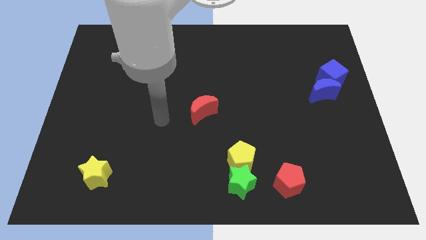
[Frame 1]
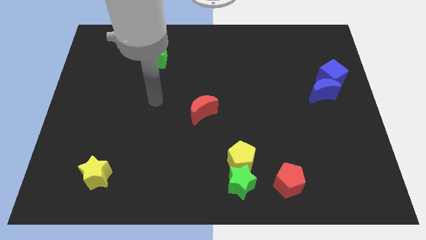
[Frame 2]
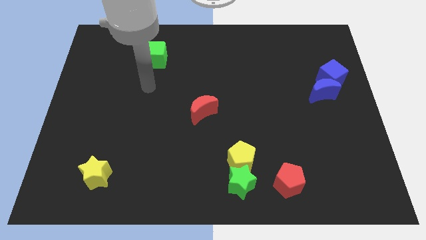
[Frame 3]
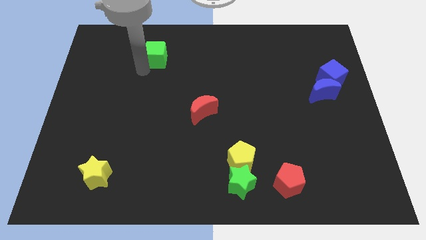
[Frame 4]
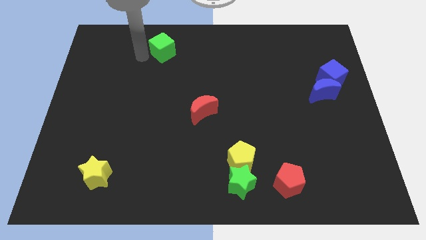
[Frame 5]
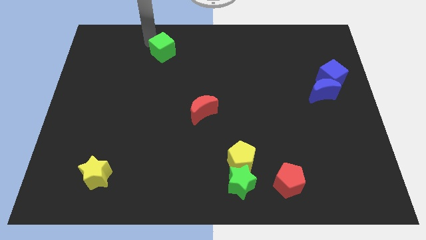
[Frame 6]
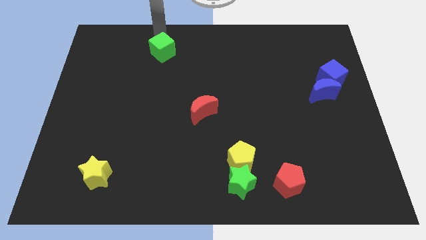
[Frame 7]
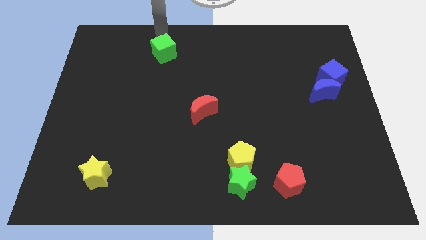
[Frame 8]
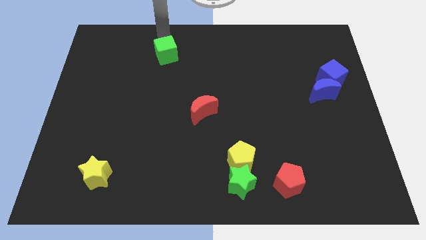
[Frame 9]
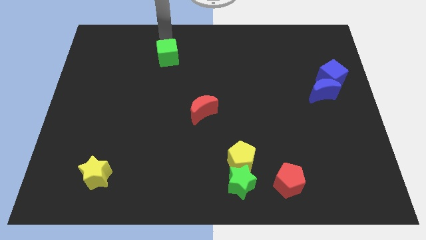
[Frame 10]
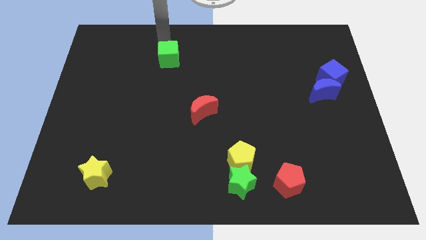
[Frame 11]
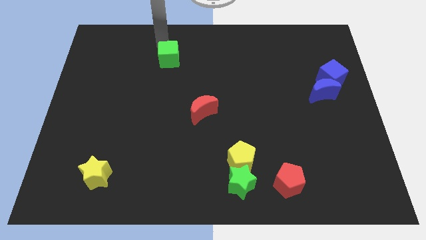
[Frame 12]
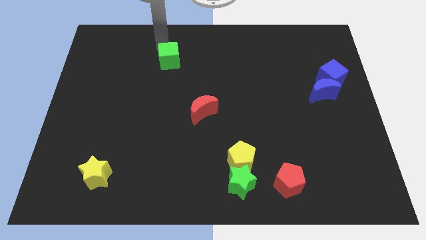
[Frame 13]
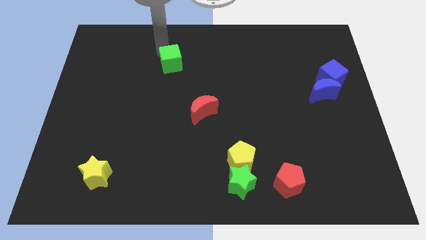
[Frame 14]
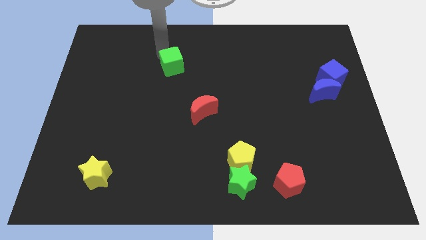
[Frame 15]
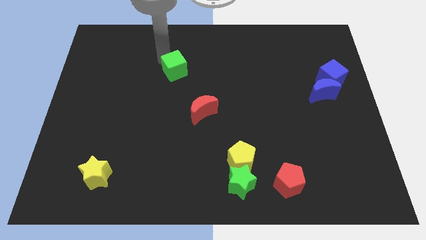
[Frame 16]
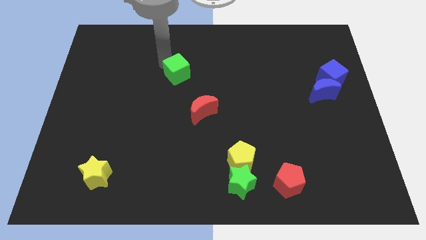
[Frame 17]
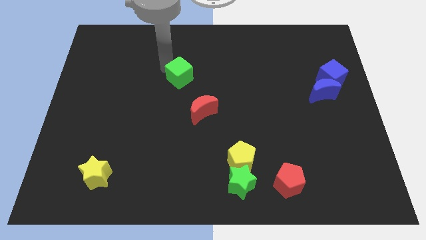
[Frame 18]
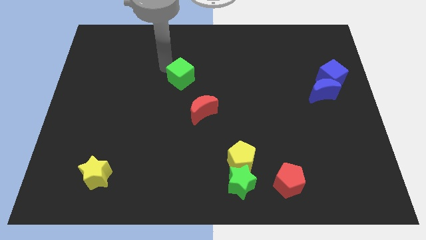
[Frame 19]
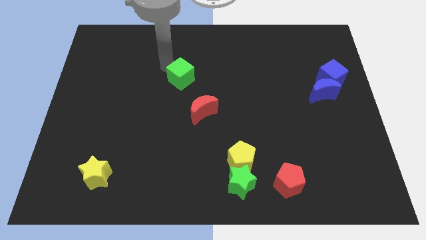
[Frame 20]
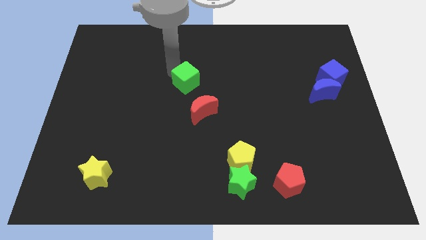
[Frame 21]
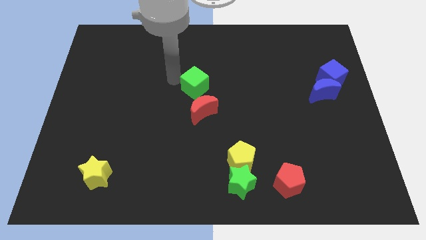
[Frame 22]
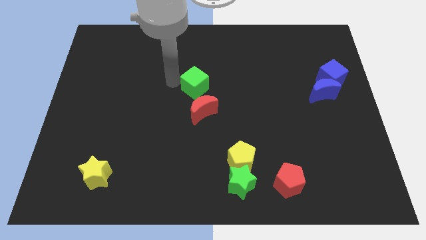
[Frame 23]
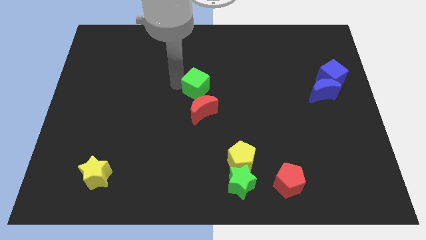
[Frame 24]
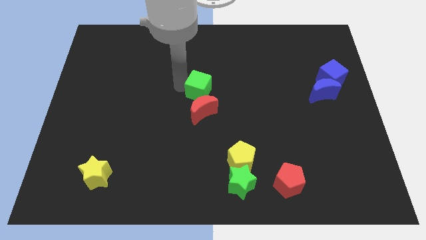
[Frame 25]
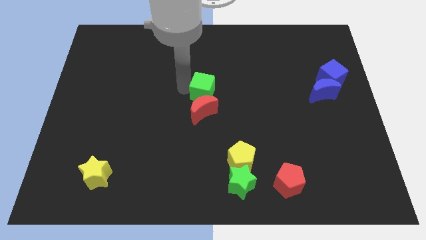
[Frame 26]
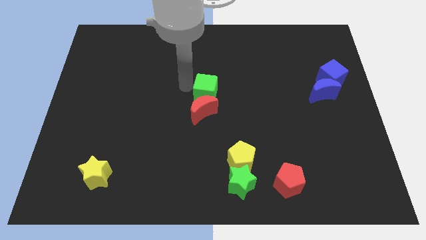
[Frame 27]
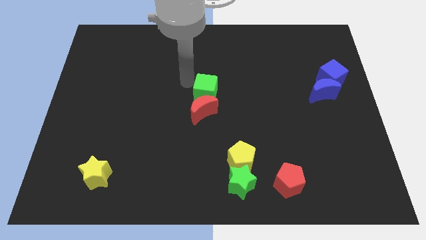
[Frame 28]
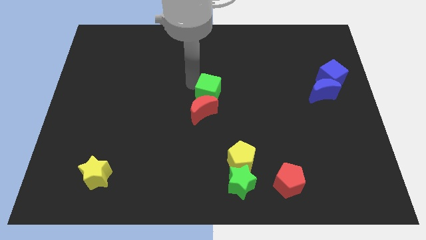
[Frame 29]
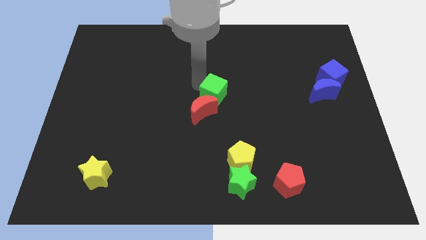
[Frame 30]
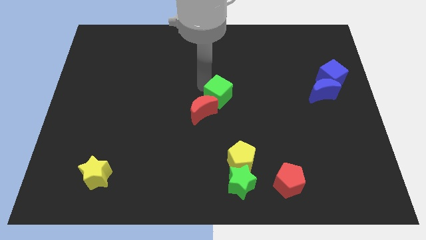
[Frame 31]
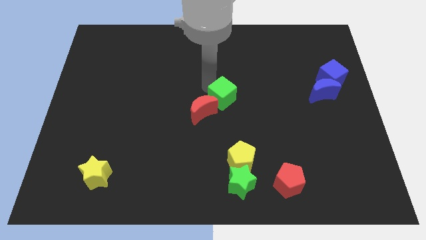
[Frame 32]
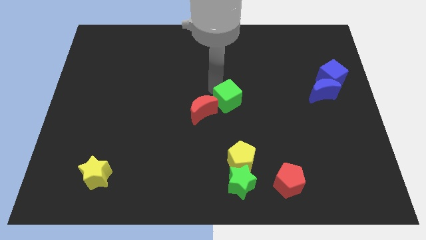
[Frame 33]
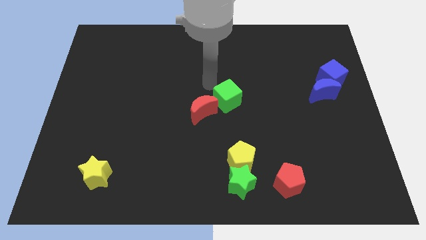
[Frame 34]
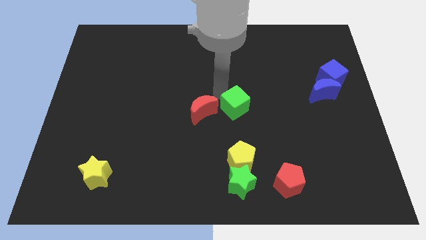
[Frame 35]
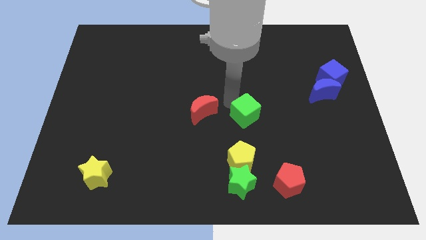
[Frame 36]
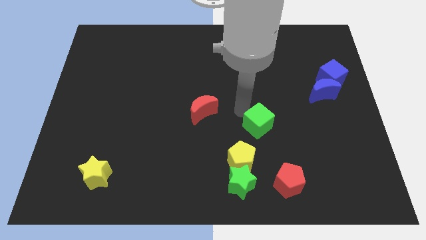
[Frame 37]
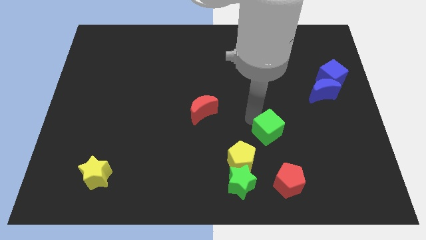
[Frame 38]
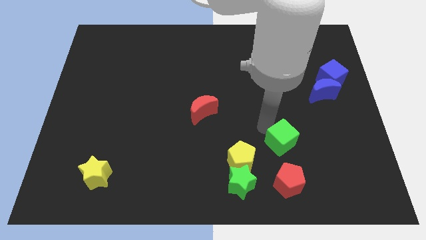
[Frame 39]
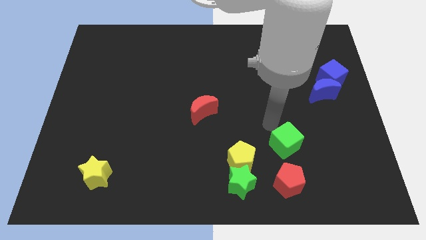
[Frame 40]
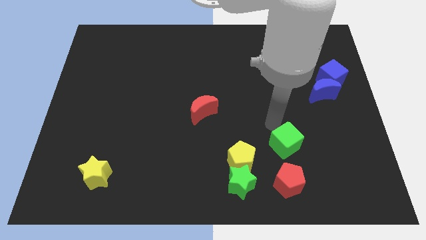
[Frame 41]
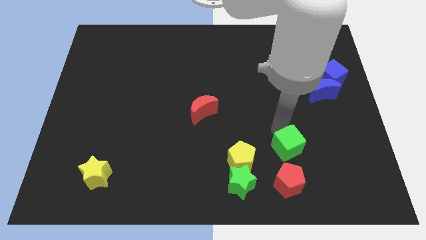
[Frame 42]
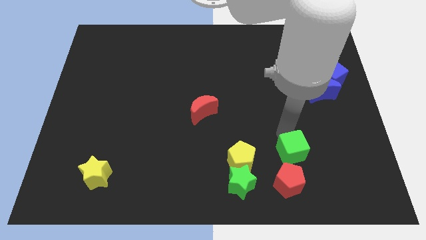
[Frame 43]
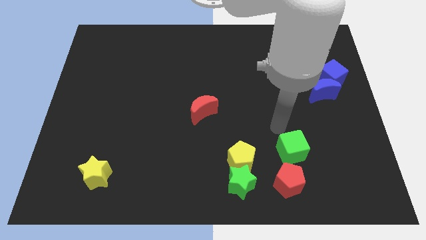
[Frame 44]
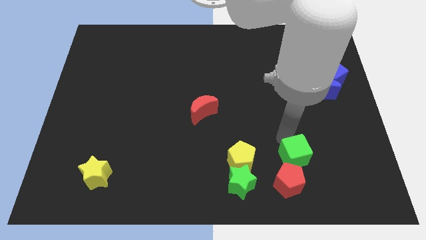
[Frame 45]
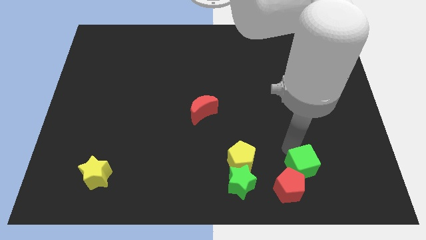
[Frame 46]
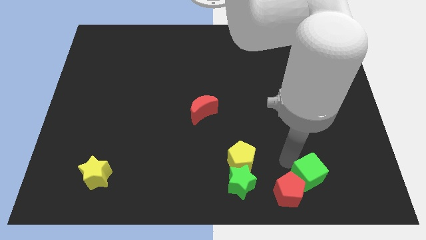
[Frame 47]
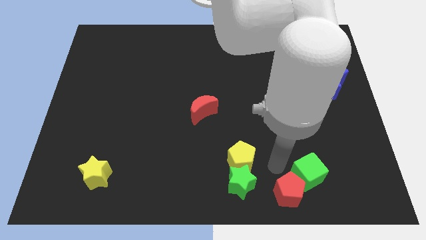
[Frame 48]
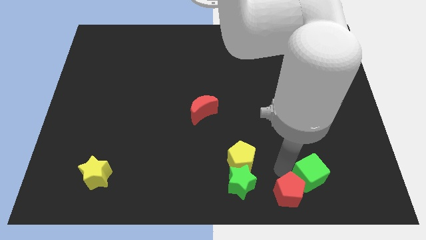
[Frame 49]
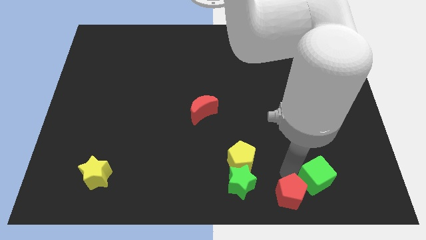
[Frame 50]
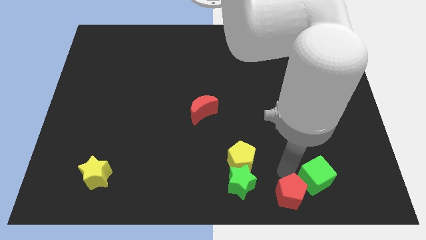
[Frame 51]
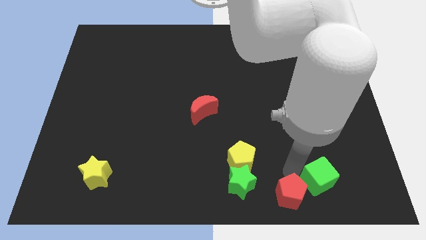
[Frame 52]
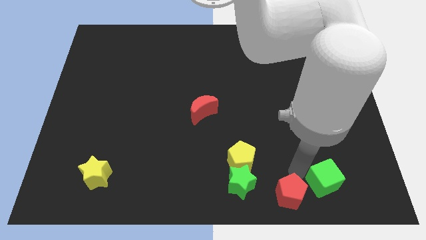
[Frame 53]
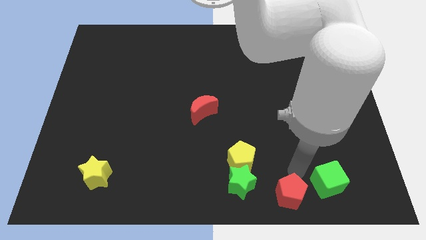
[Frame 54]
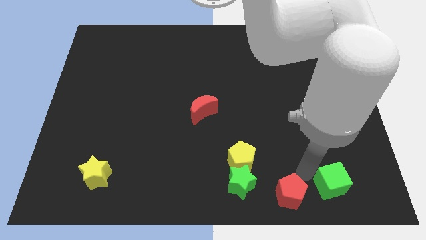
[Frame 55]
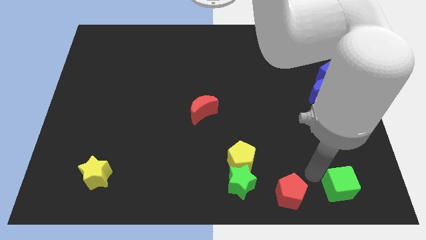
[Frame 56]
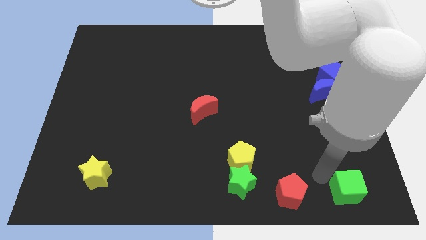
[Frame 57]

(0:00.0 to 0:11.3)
push the green cube to the bottom right
